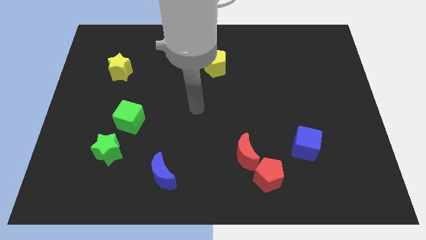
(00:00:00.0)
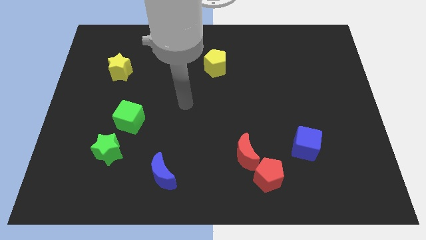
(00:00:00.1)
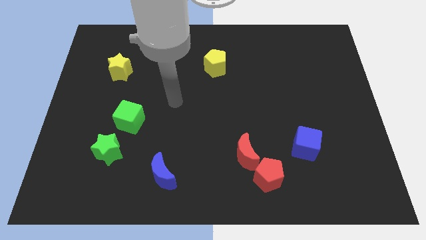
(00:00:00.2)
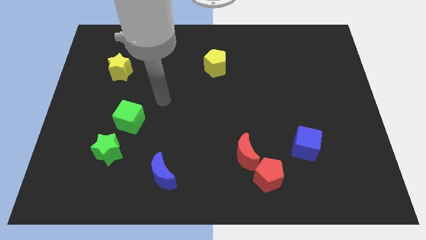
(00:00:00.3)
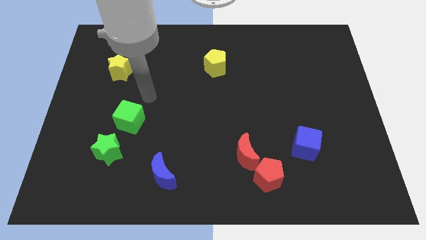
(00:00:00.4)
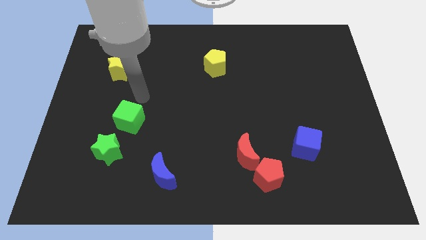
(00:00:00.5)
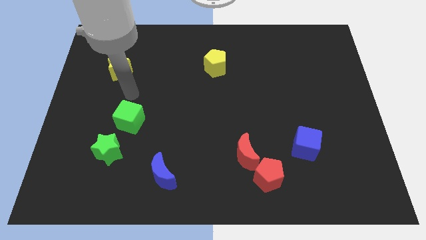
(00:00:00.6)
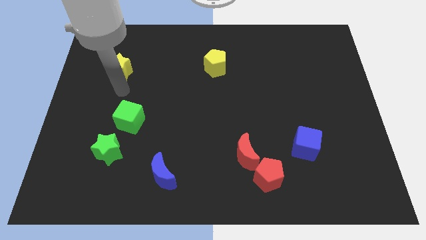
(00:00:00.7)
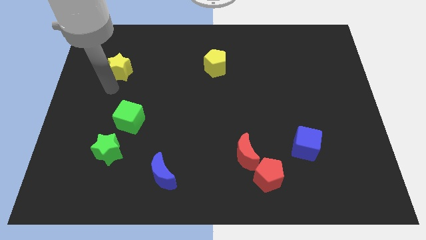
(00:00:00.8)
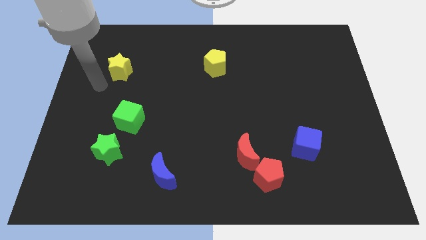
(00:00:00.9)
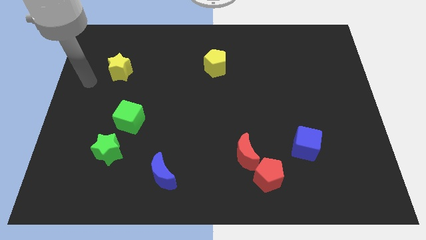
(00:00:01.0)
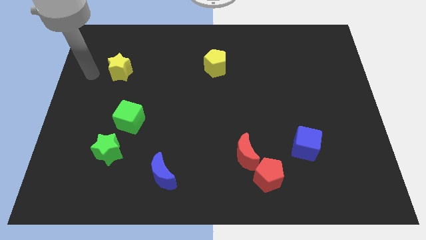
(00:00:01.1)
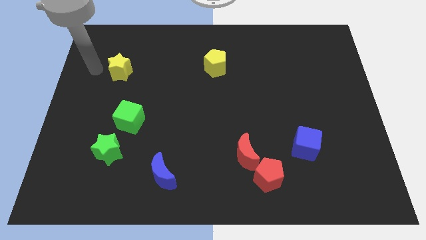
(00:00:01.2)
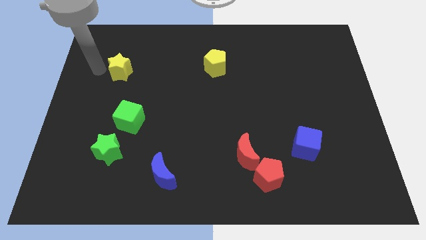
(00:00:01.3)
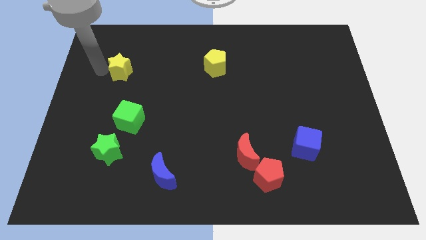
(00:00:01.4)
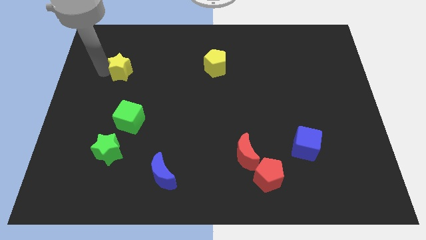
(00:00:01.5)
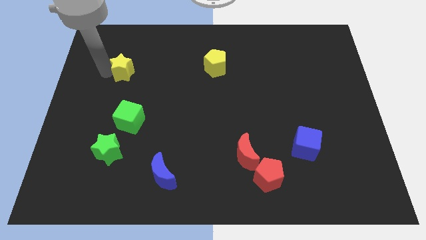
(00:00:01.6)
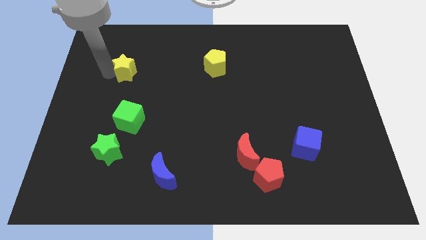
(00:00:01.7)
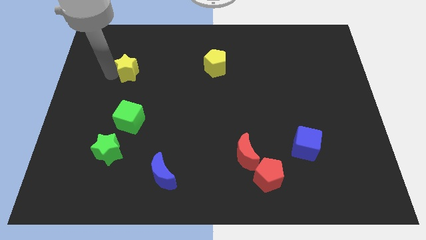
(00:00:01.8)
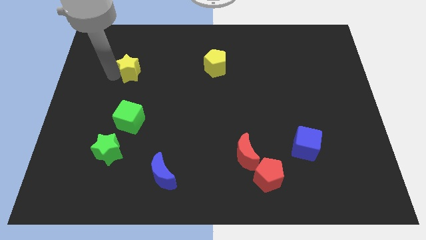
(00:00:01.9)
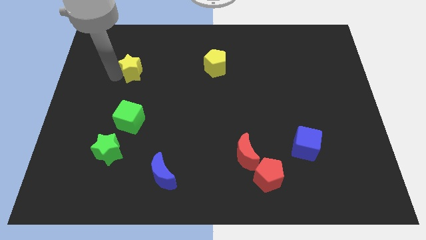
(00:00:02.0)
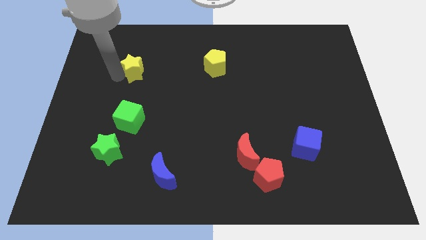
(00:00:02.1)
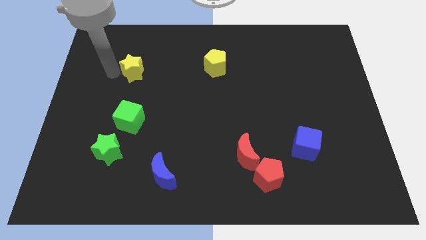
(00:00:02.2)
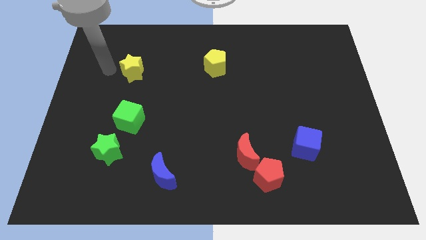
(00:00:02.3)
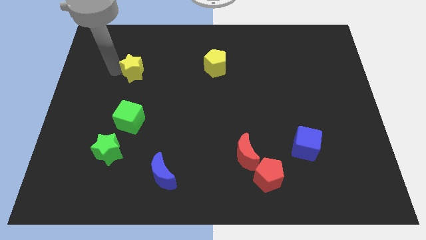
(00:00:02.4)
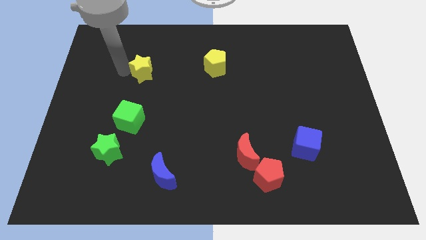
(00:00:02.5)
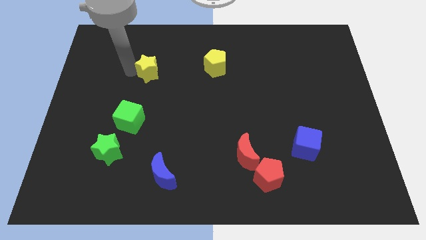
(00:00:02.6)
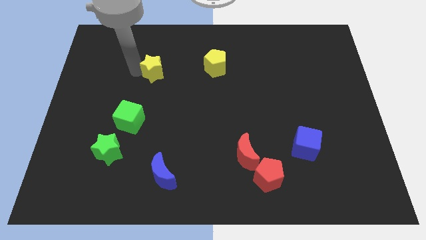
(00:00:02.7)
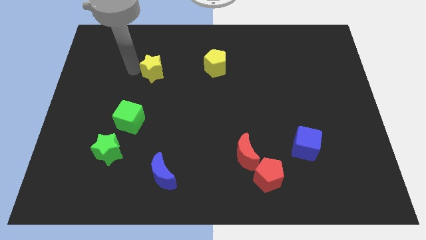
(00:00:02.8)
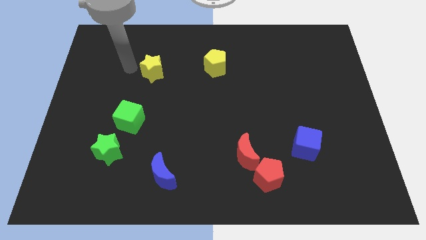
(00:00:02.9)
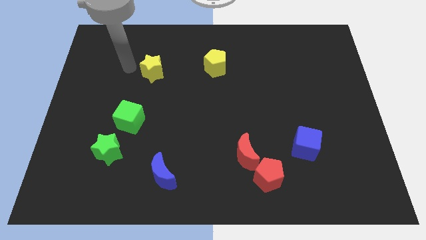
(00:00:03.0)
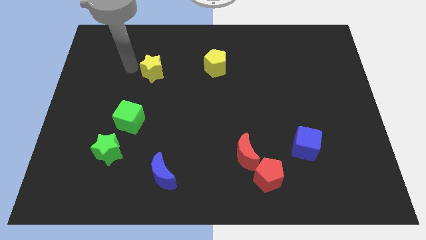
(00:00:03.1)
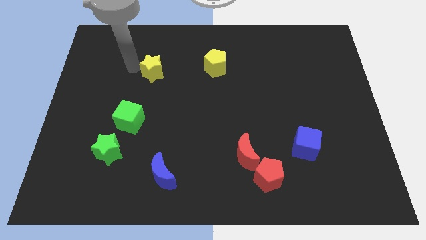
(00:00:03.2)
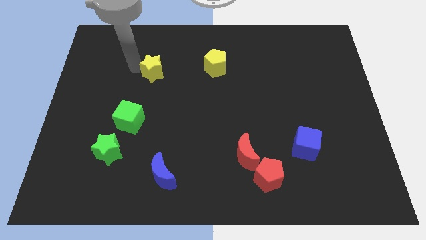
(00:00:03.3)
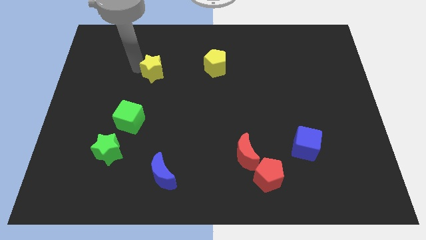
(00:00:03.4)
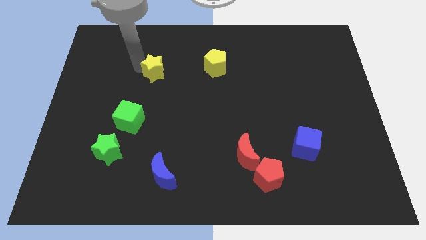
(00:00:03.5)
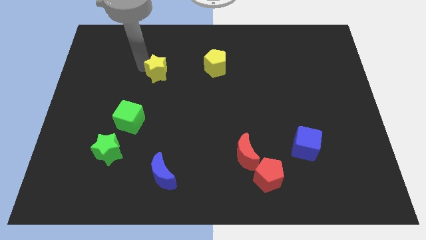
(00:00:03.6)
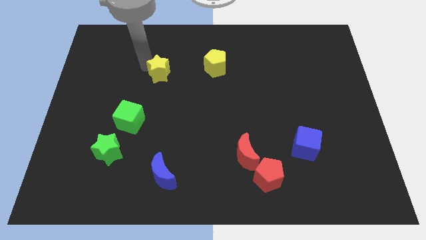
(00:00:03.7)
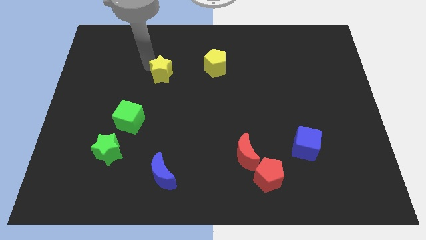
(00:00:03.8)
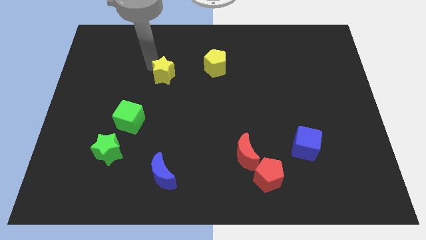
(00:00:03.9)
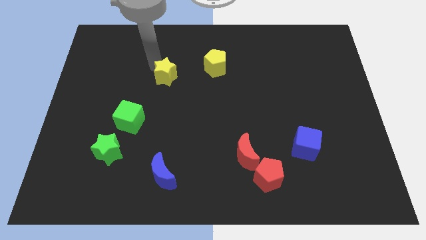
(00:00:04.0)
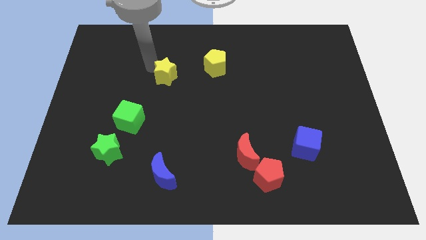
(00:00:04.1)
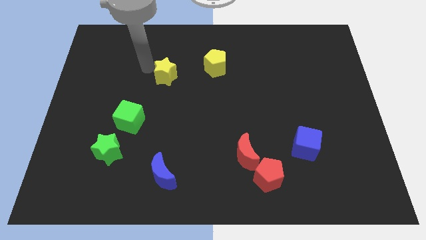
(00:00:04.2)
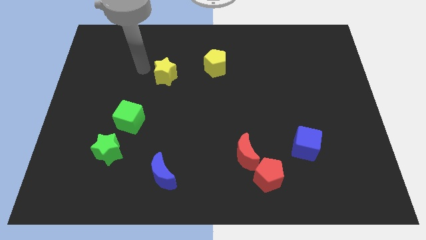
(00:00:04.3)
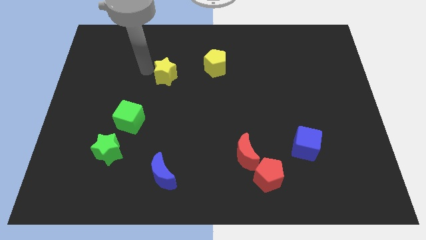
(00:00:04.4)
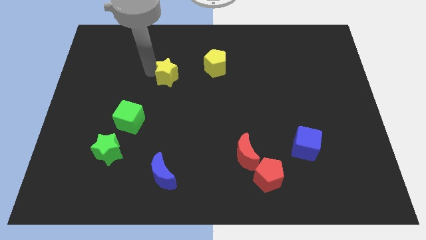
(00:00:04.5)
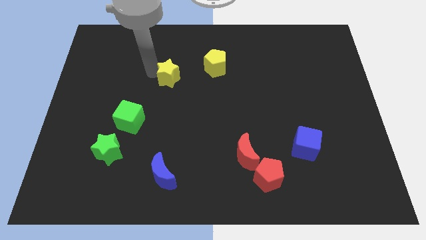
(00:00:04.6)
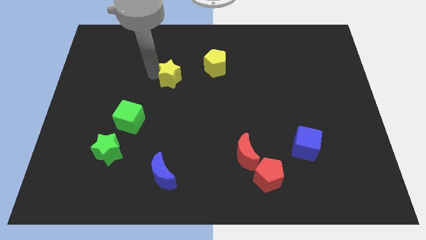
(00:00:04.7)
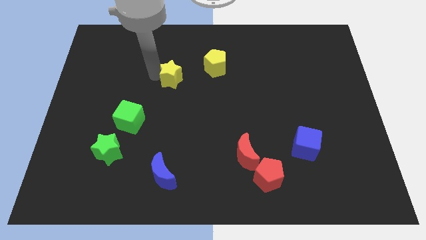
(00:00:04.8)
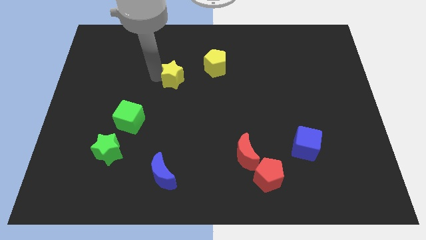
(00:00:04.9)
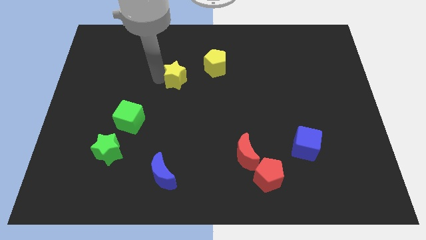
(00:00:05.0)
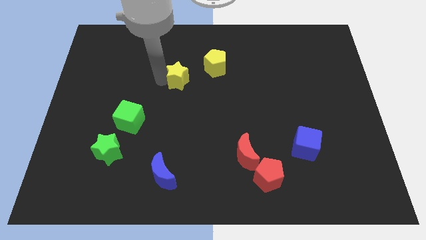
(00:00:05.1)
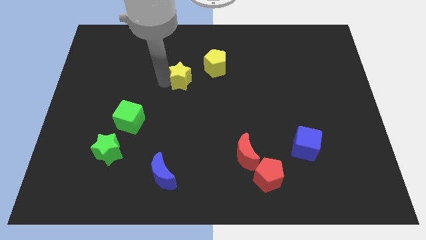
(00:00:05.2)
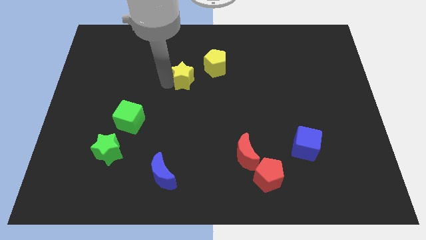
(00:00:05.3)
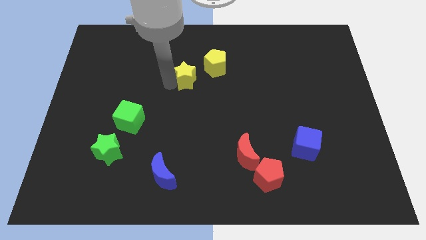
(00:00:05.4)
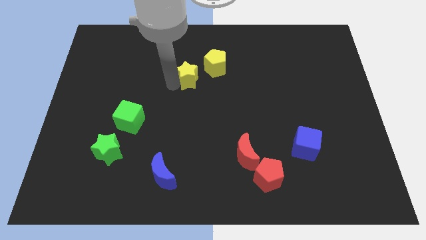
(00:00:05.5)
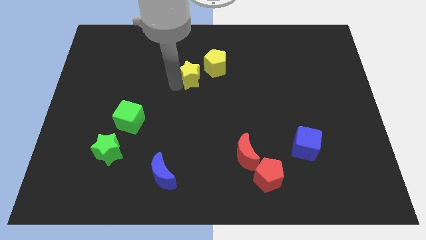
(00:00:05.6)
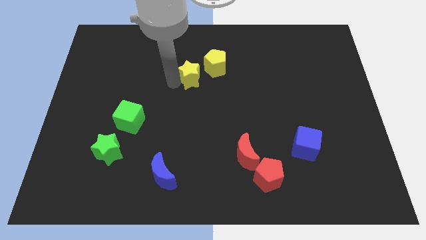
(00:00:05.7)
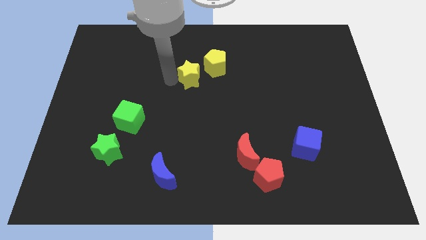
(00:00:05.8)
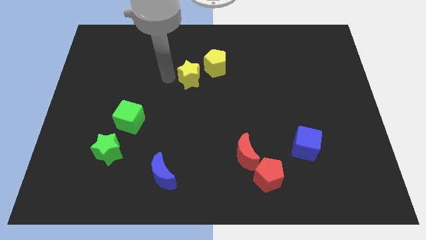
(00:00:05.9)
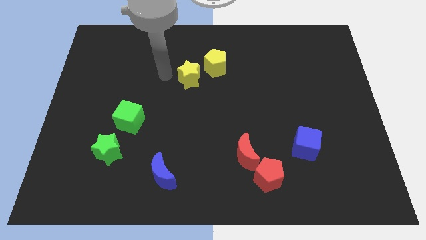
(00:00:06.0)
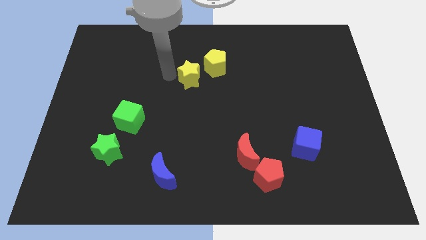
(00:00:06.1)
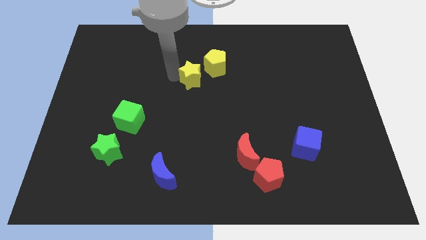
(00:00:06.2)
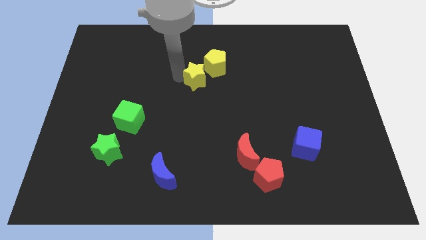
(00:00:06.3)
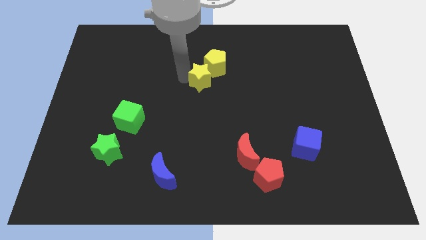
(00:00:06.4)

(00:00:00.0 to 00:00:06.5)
move the yellow star right

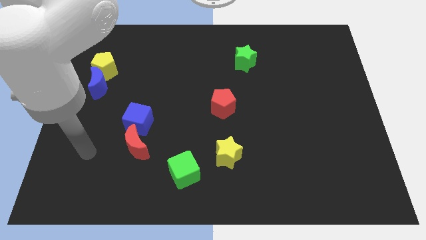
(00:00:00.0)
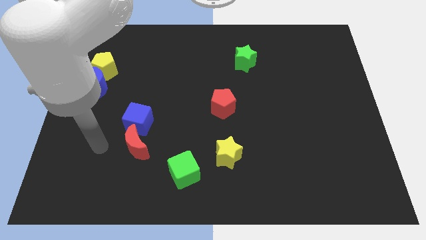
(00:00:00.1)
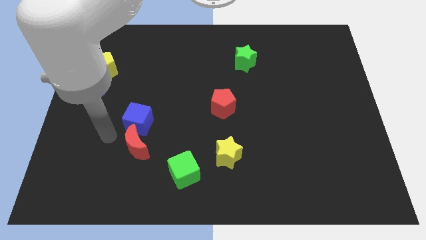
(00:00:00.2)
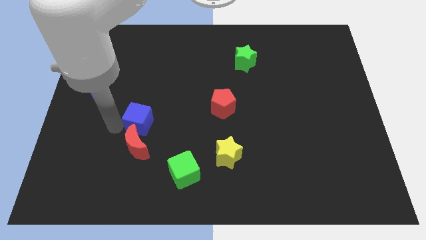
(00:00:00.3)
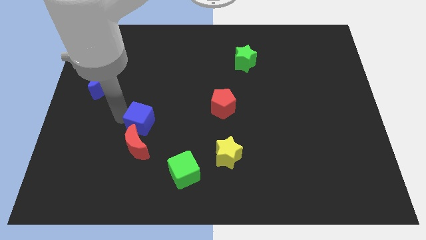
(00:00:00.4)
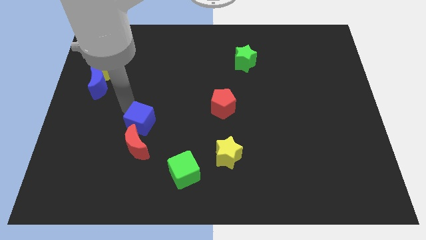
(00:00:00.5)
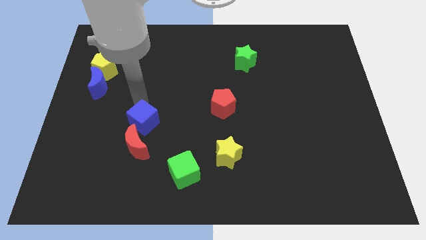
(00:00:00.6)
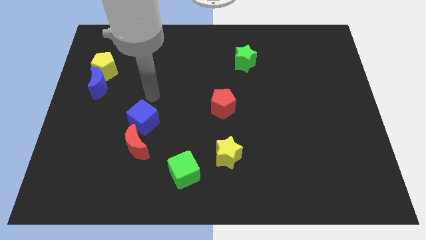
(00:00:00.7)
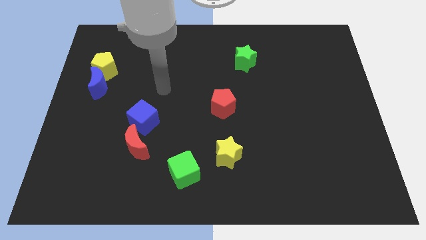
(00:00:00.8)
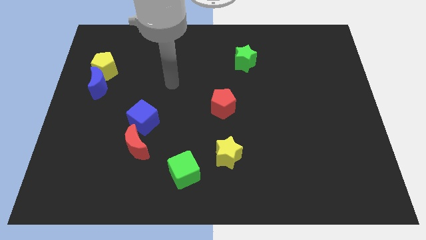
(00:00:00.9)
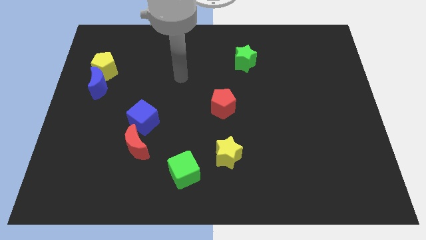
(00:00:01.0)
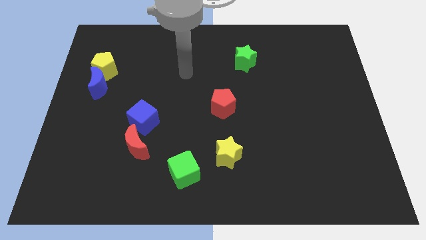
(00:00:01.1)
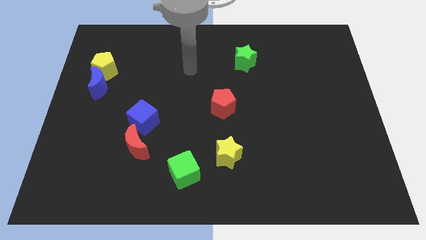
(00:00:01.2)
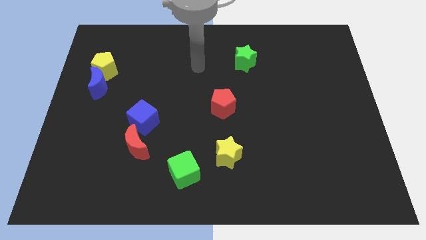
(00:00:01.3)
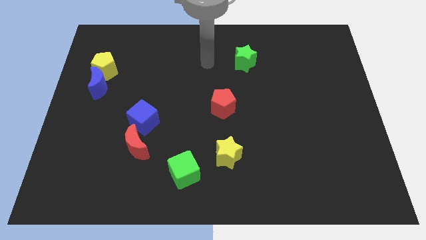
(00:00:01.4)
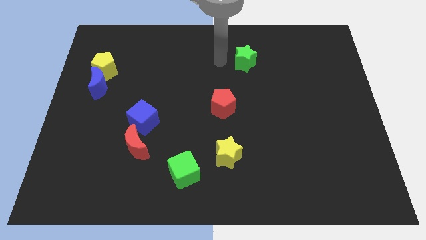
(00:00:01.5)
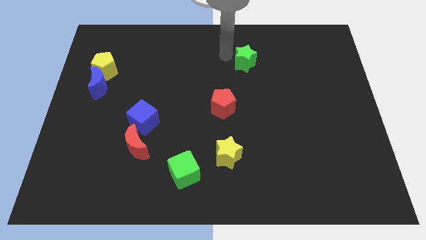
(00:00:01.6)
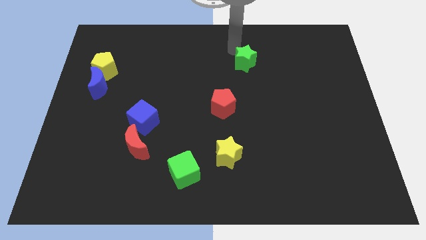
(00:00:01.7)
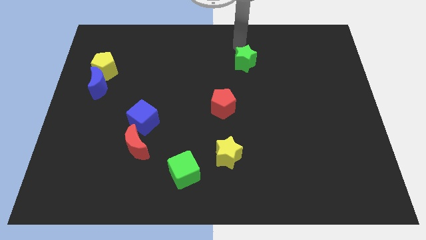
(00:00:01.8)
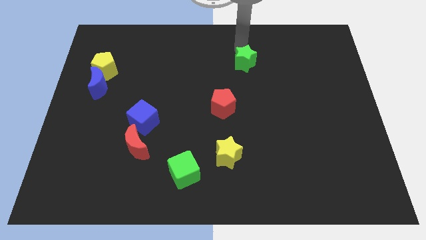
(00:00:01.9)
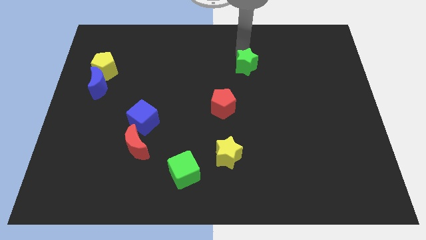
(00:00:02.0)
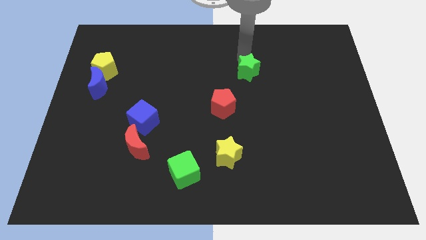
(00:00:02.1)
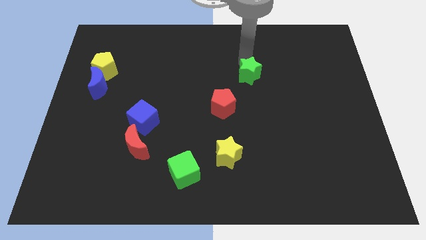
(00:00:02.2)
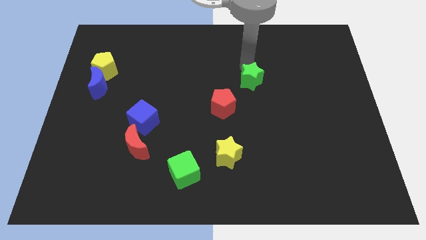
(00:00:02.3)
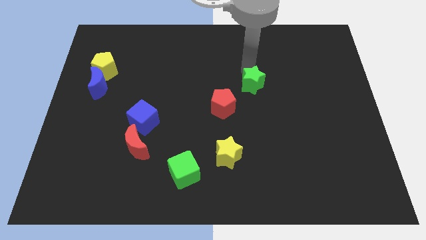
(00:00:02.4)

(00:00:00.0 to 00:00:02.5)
move the green star downwards slightly
